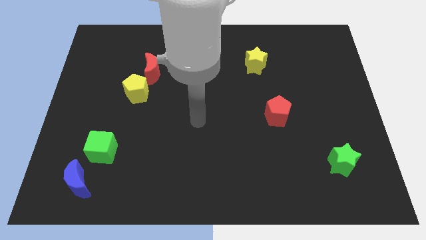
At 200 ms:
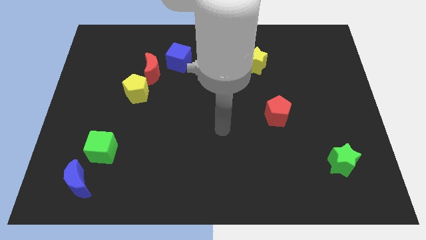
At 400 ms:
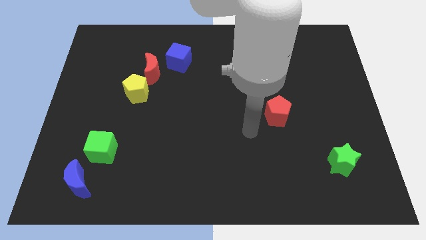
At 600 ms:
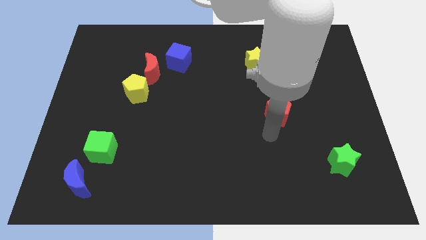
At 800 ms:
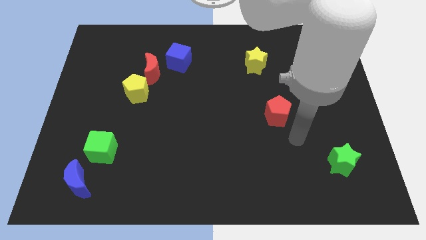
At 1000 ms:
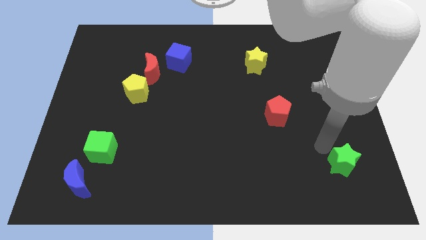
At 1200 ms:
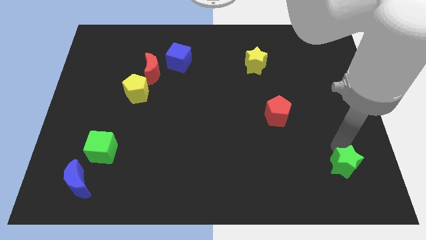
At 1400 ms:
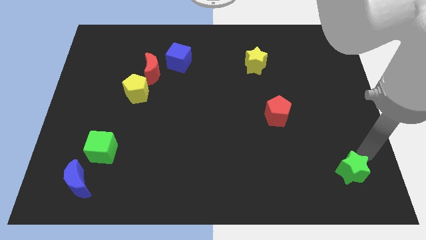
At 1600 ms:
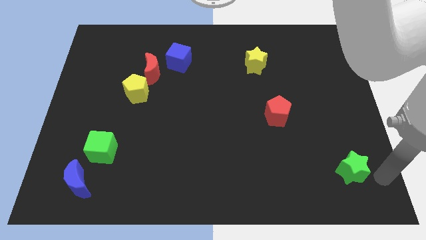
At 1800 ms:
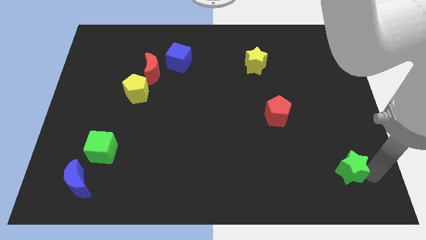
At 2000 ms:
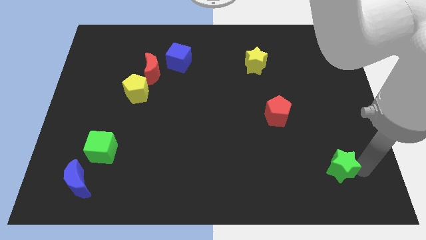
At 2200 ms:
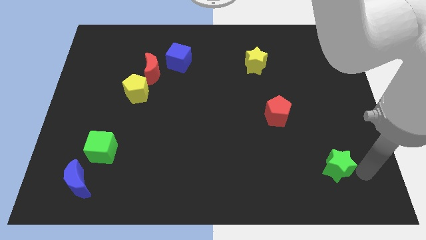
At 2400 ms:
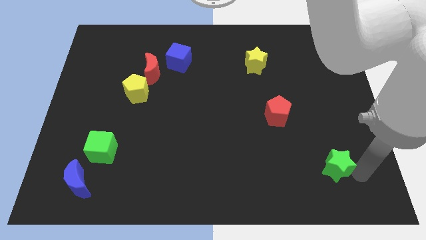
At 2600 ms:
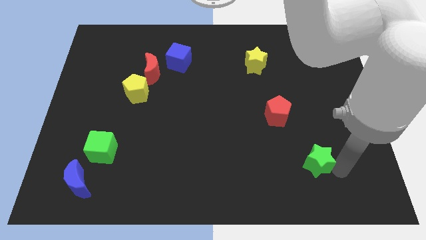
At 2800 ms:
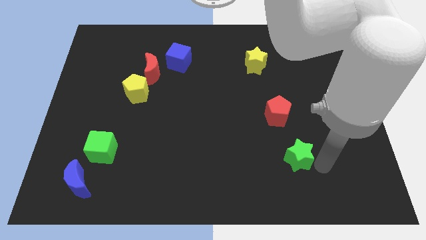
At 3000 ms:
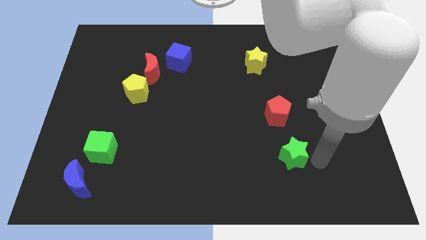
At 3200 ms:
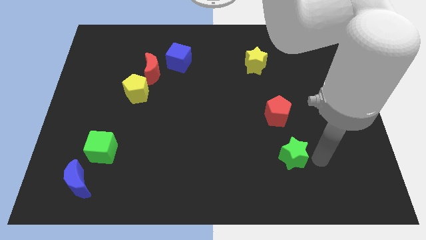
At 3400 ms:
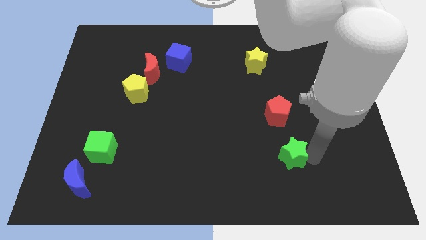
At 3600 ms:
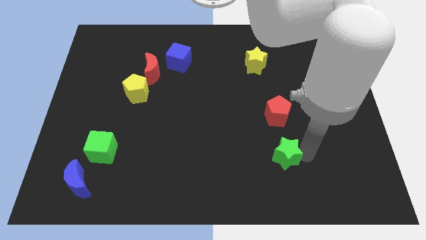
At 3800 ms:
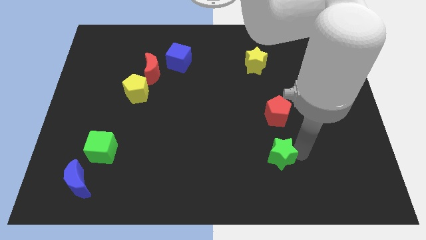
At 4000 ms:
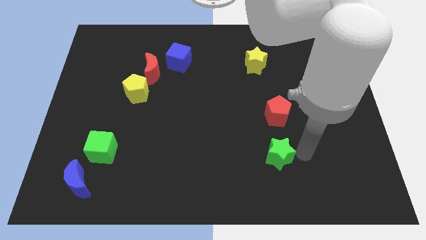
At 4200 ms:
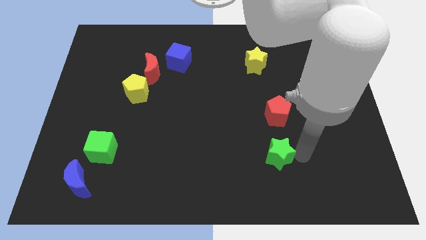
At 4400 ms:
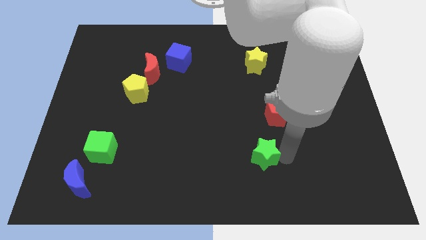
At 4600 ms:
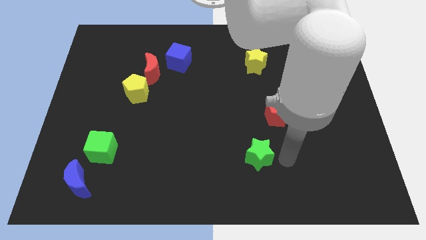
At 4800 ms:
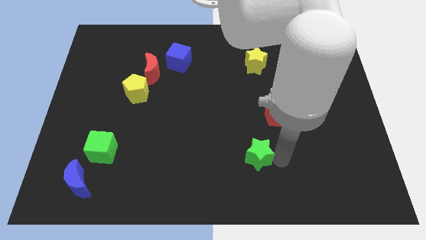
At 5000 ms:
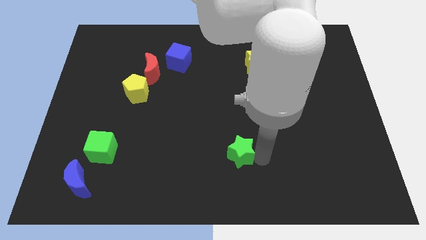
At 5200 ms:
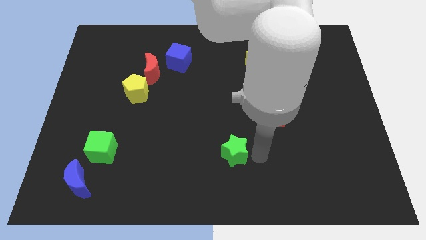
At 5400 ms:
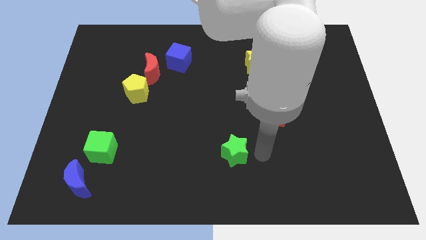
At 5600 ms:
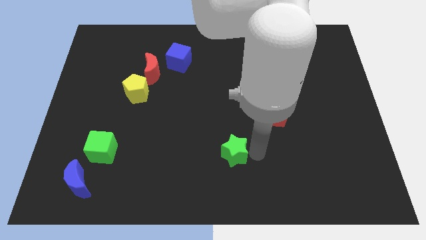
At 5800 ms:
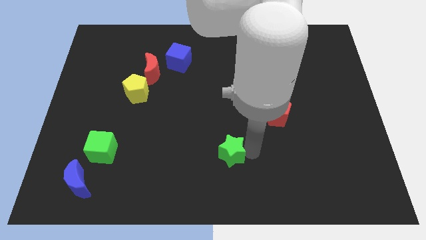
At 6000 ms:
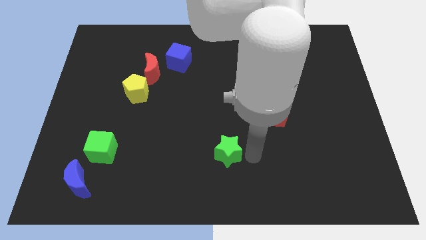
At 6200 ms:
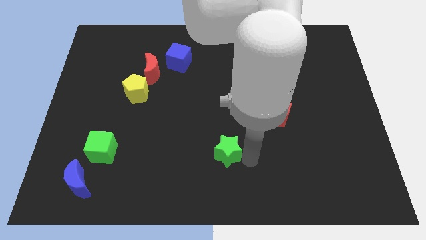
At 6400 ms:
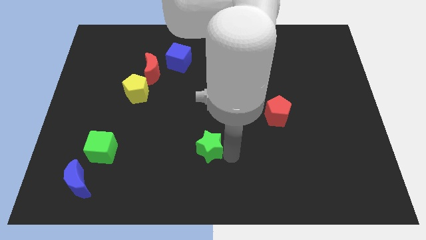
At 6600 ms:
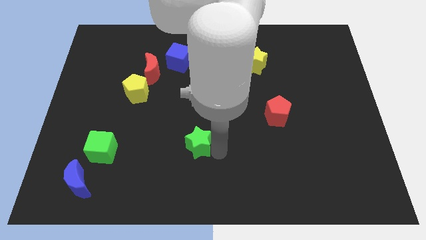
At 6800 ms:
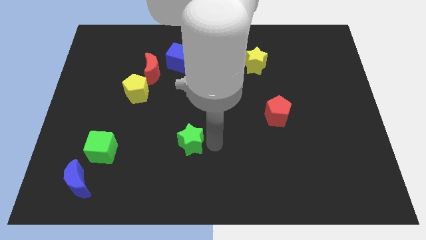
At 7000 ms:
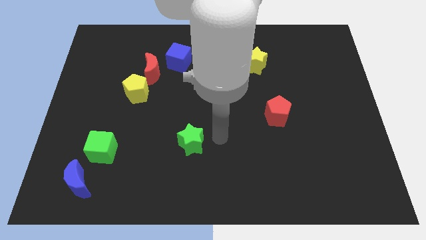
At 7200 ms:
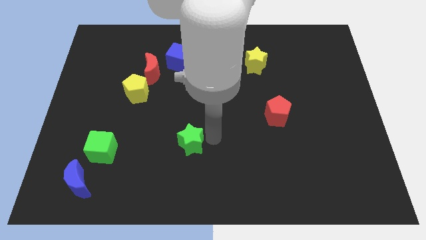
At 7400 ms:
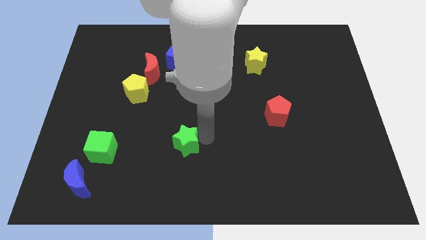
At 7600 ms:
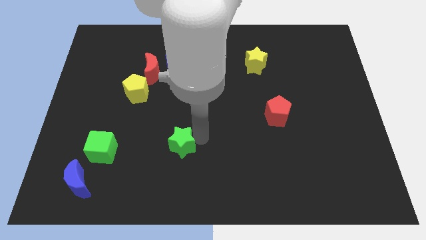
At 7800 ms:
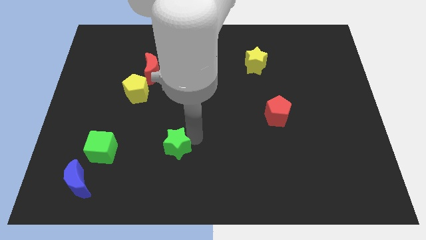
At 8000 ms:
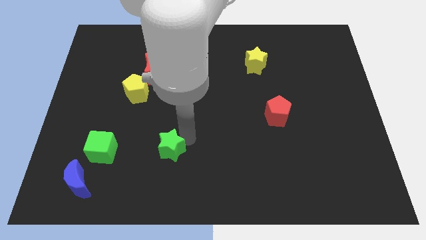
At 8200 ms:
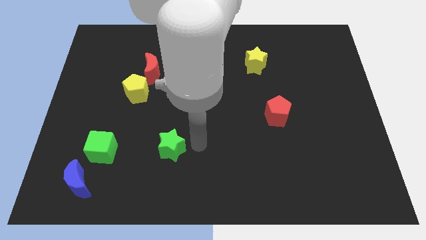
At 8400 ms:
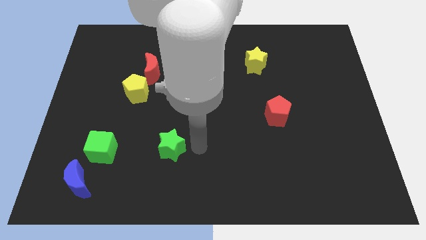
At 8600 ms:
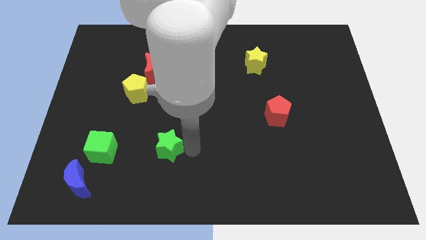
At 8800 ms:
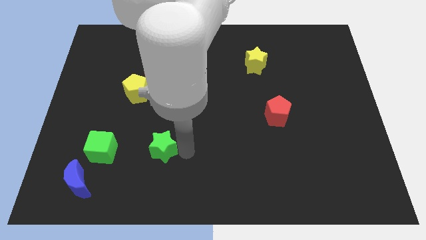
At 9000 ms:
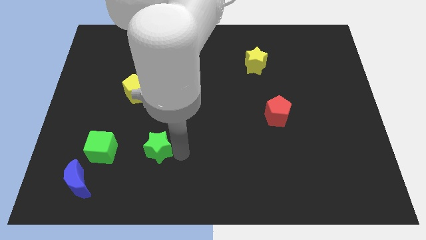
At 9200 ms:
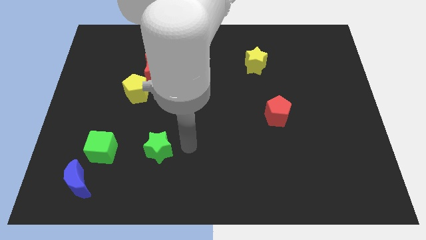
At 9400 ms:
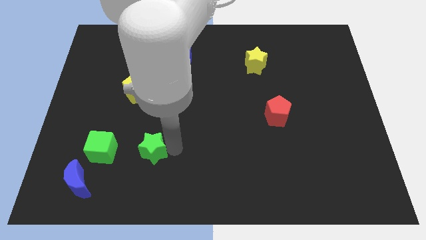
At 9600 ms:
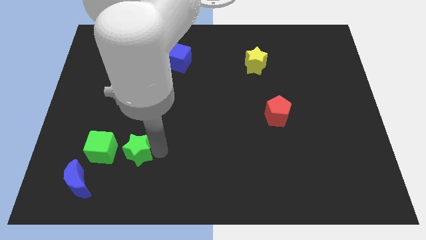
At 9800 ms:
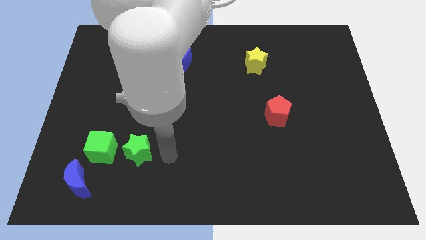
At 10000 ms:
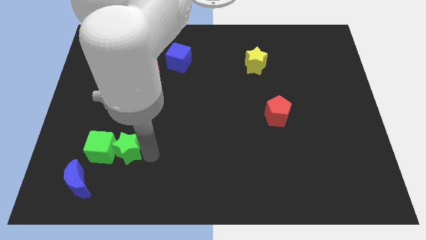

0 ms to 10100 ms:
put the green star close to the green cube

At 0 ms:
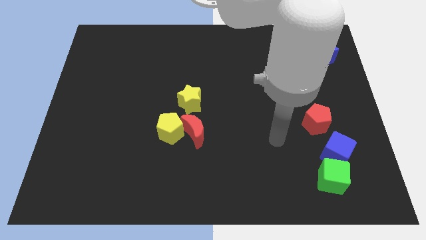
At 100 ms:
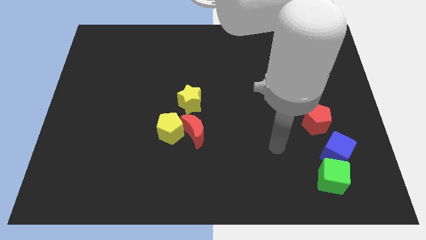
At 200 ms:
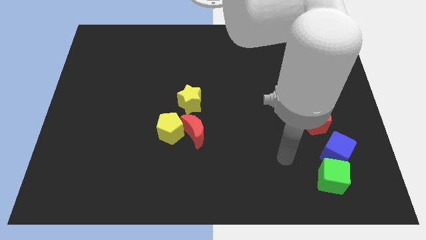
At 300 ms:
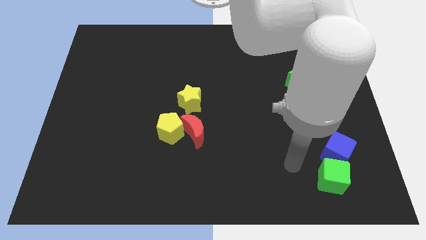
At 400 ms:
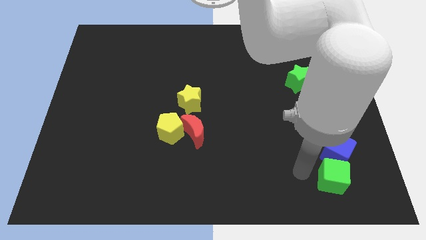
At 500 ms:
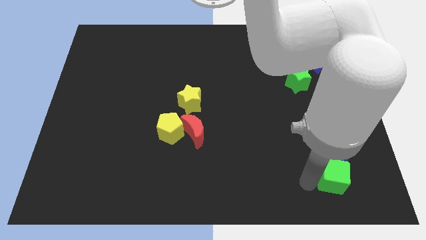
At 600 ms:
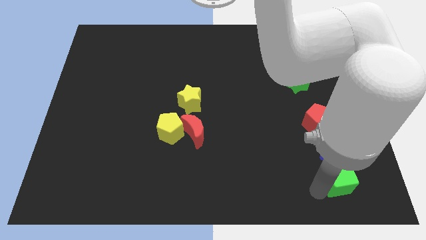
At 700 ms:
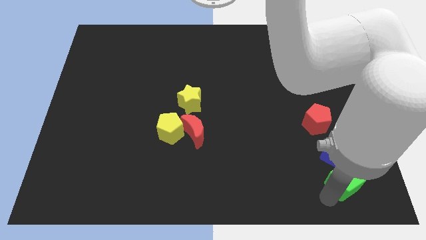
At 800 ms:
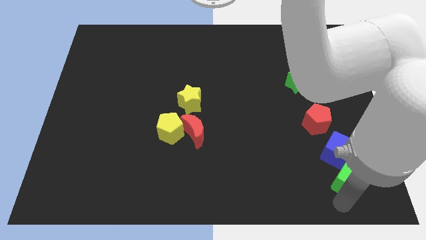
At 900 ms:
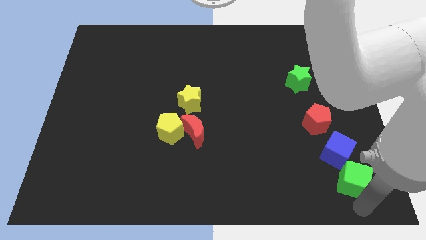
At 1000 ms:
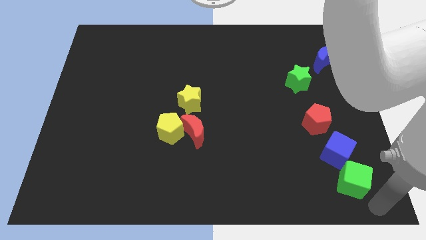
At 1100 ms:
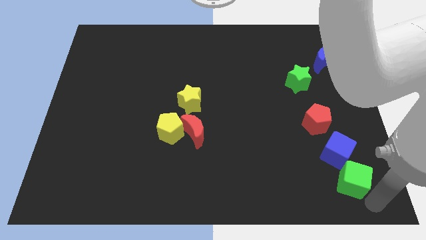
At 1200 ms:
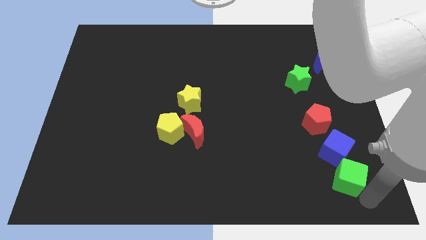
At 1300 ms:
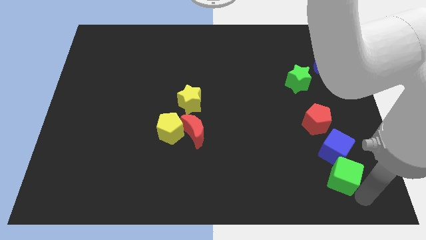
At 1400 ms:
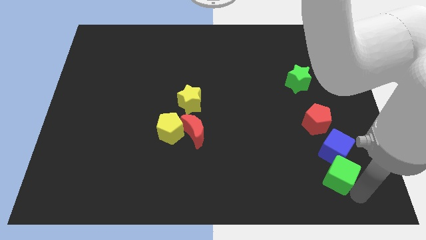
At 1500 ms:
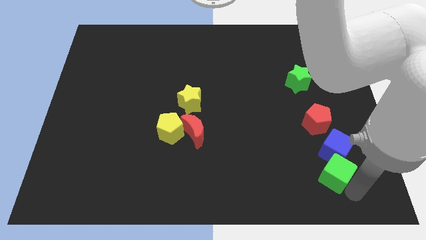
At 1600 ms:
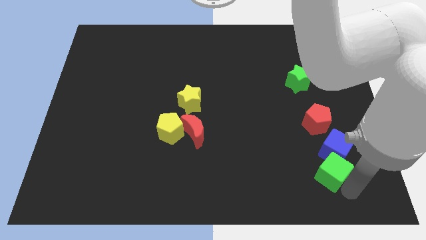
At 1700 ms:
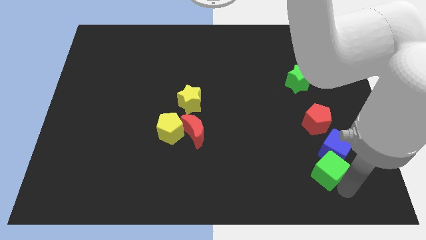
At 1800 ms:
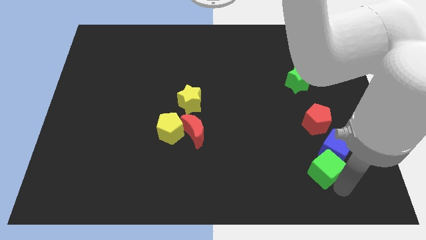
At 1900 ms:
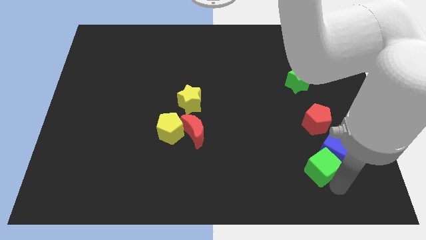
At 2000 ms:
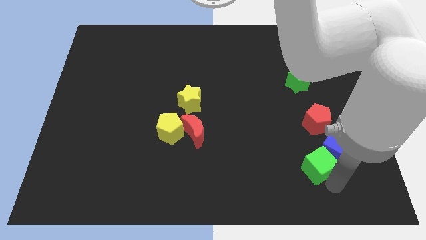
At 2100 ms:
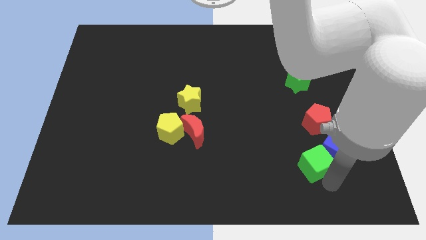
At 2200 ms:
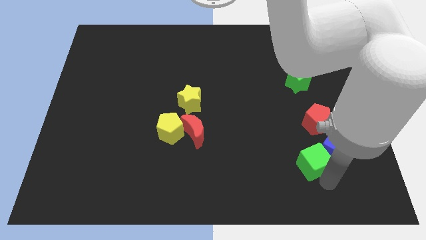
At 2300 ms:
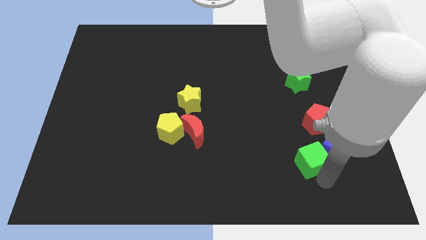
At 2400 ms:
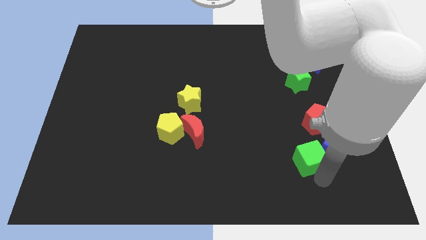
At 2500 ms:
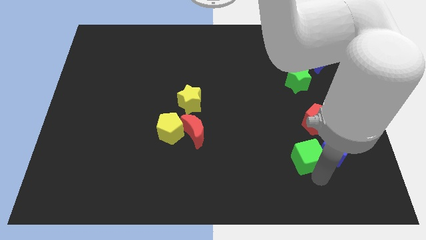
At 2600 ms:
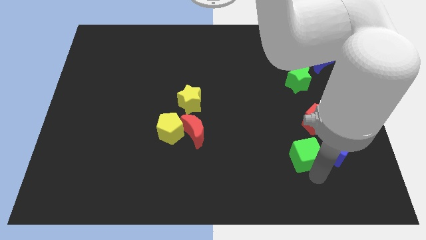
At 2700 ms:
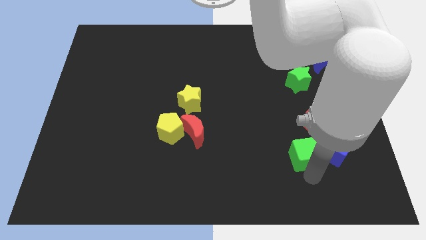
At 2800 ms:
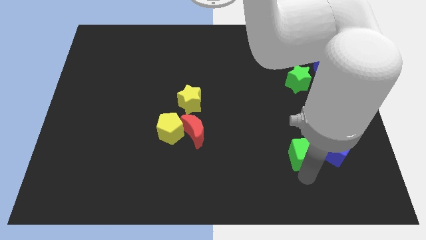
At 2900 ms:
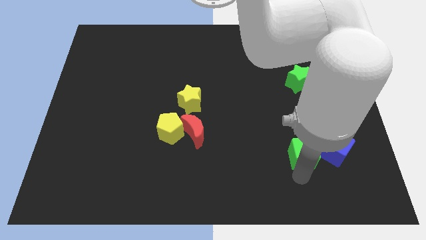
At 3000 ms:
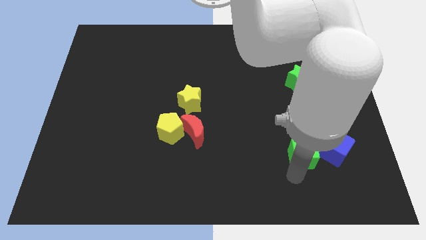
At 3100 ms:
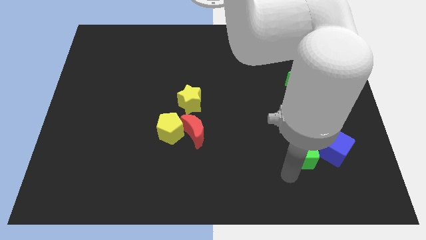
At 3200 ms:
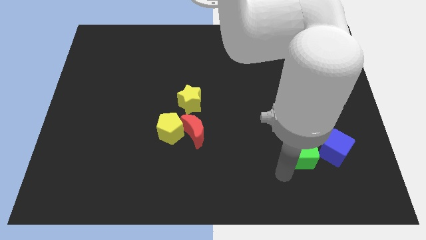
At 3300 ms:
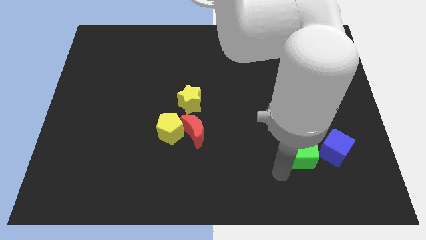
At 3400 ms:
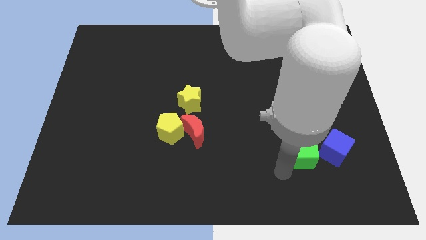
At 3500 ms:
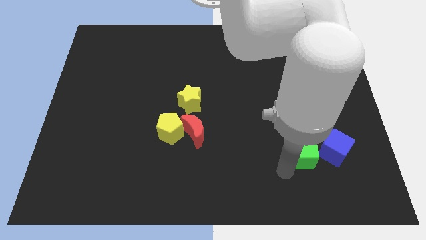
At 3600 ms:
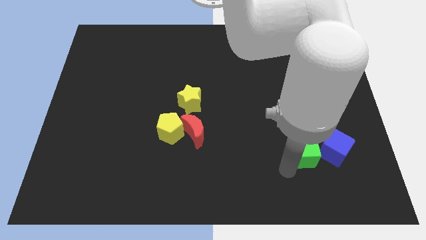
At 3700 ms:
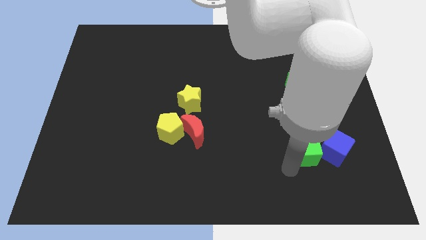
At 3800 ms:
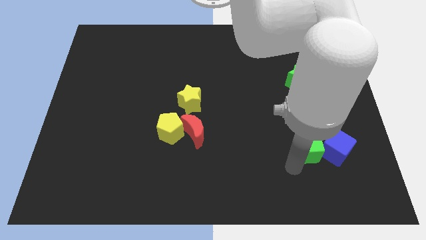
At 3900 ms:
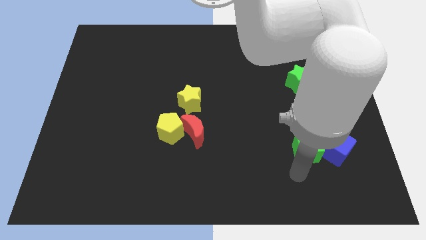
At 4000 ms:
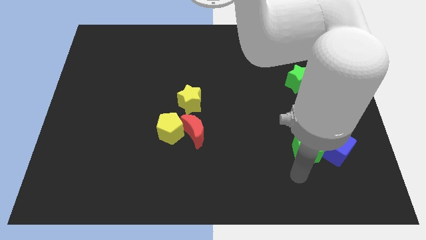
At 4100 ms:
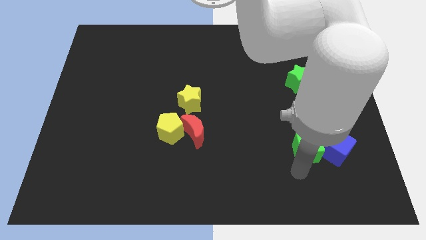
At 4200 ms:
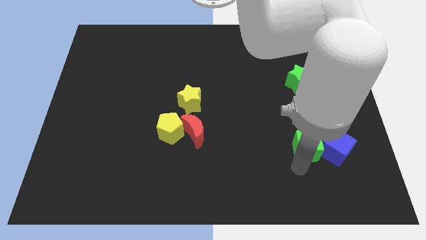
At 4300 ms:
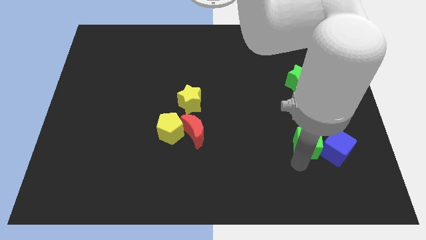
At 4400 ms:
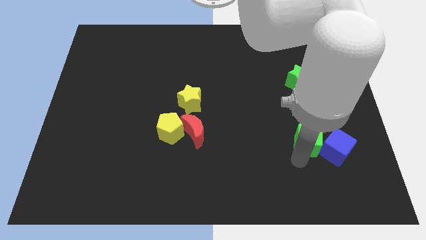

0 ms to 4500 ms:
move the green cube to the red pentagon
